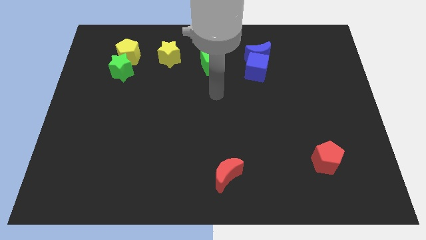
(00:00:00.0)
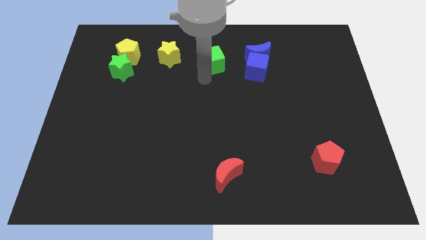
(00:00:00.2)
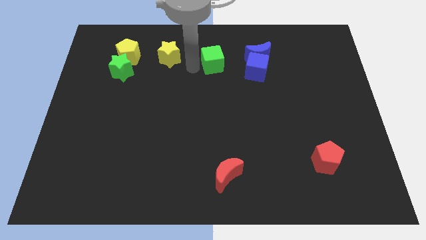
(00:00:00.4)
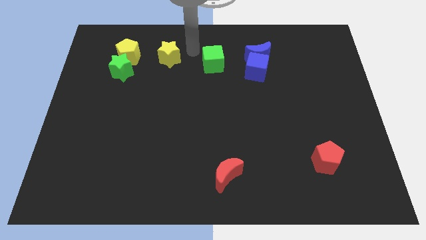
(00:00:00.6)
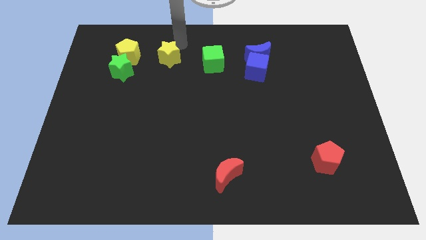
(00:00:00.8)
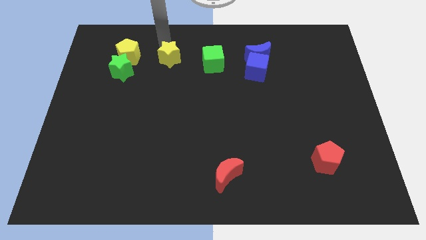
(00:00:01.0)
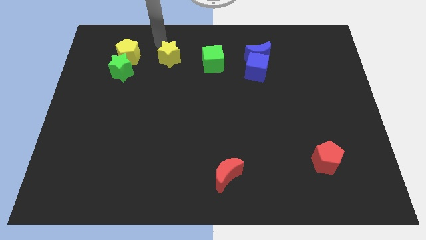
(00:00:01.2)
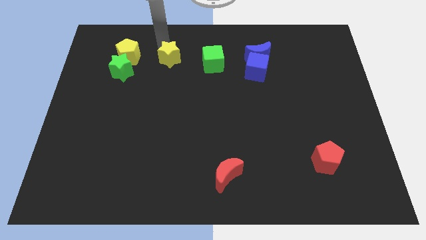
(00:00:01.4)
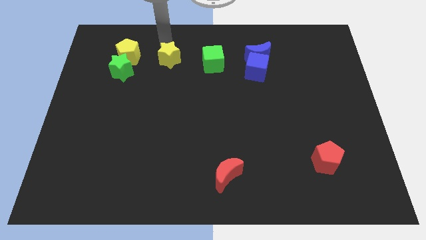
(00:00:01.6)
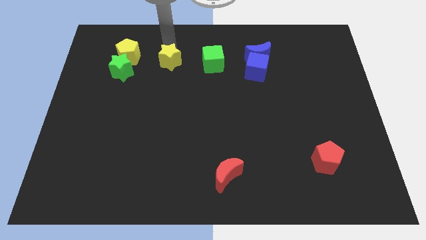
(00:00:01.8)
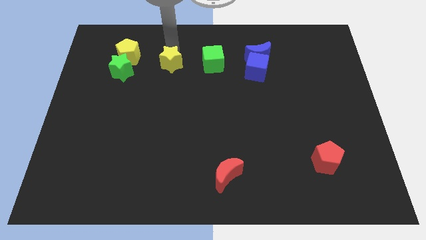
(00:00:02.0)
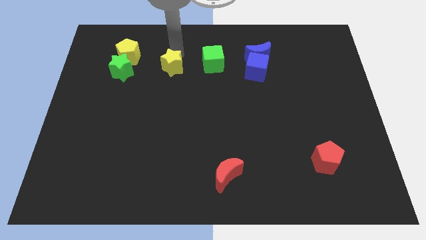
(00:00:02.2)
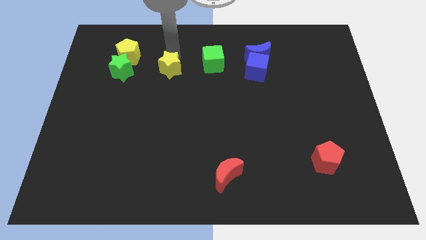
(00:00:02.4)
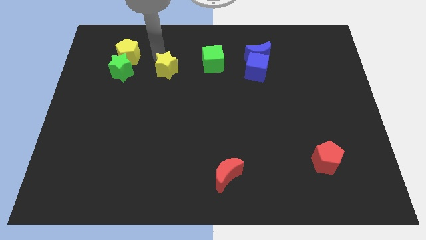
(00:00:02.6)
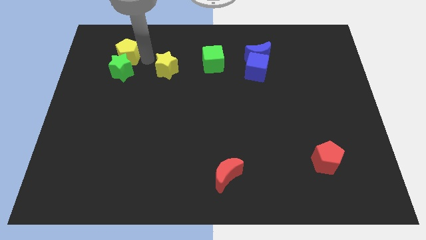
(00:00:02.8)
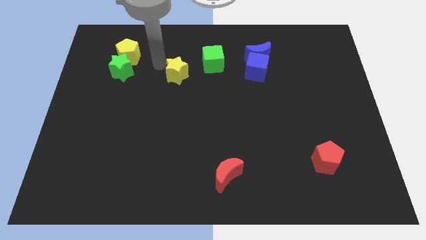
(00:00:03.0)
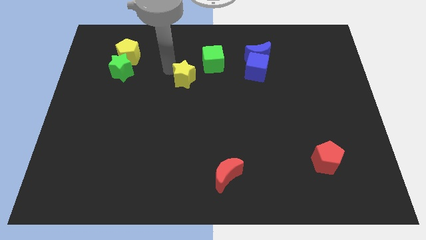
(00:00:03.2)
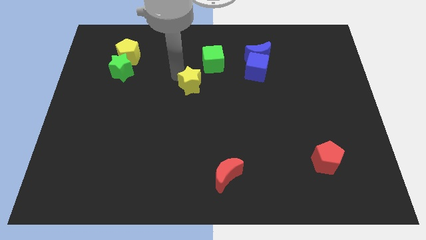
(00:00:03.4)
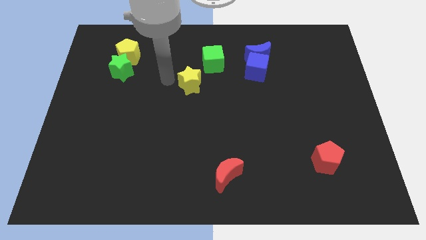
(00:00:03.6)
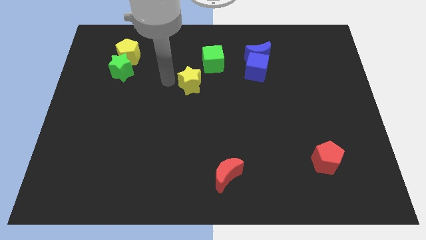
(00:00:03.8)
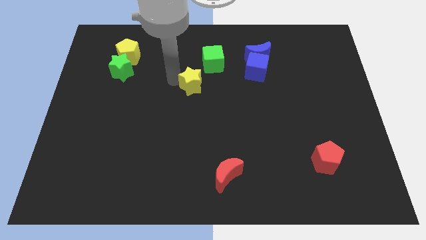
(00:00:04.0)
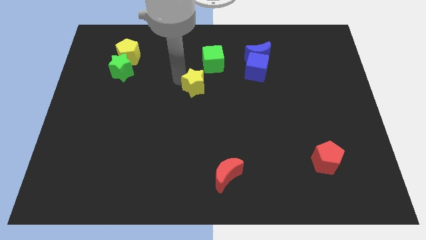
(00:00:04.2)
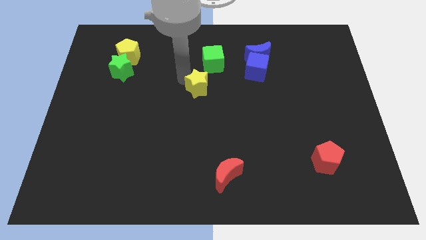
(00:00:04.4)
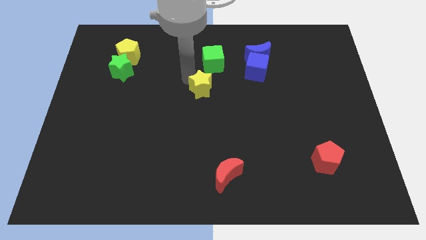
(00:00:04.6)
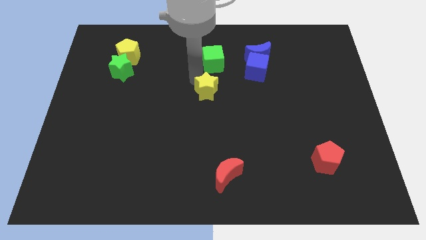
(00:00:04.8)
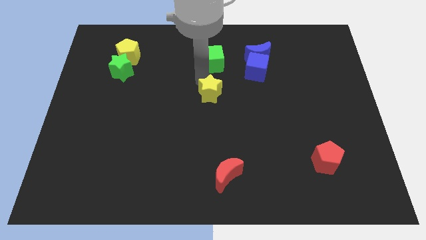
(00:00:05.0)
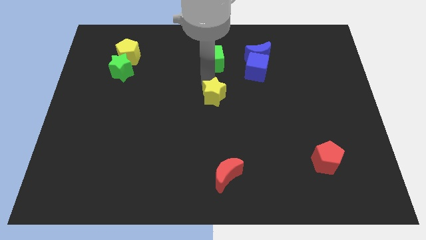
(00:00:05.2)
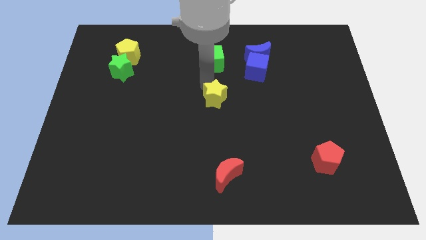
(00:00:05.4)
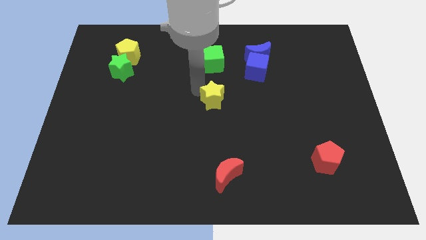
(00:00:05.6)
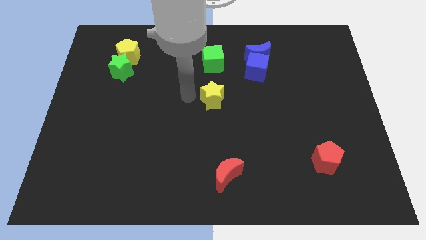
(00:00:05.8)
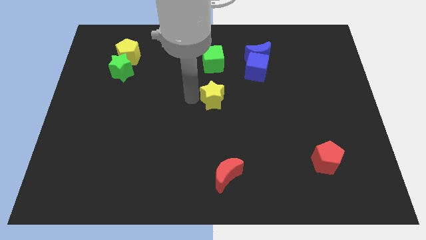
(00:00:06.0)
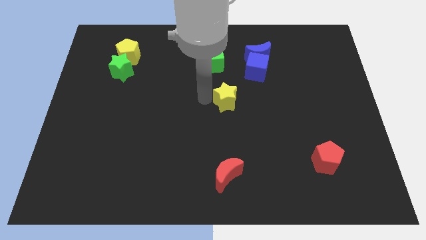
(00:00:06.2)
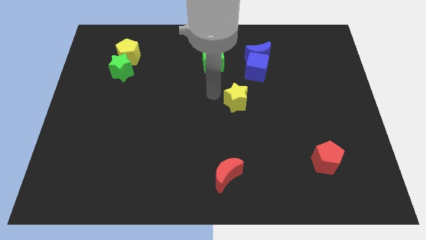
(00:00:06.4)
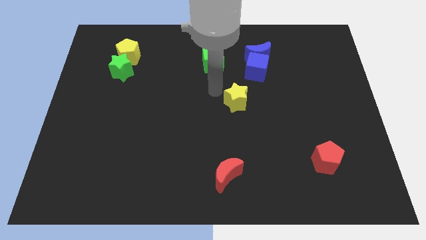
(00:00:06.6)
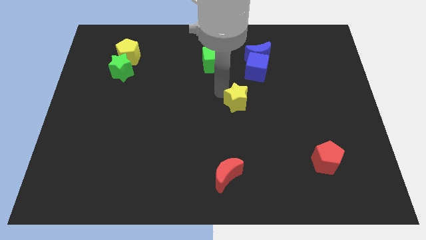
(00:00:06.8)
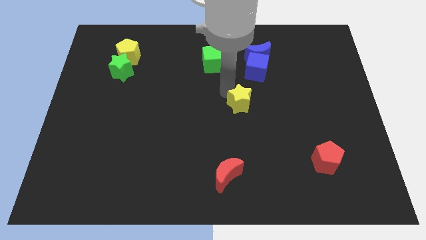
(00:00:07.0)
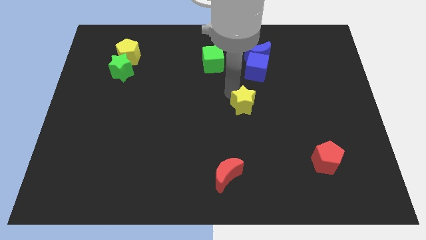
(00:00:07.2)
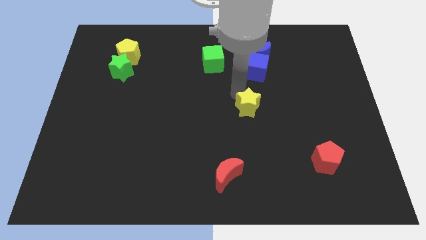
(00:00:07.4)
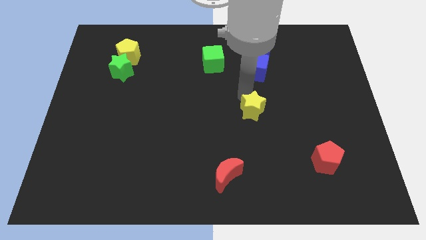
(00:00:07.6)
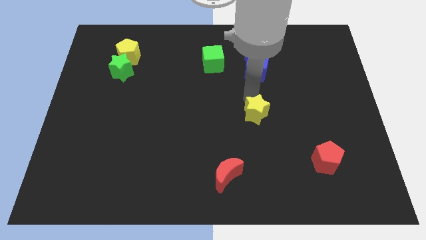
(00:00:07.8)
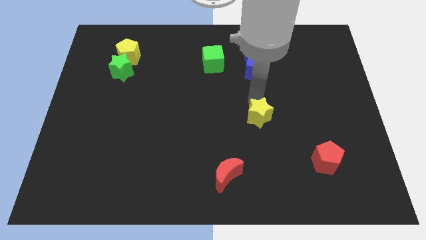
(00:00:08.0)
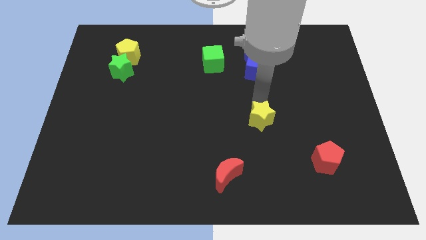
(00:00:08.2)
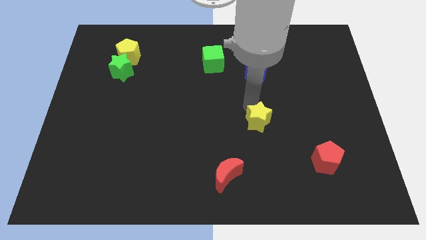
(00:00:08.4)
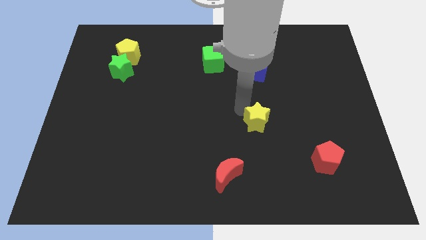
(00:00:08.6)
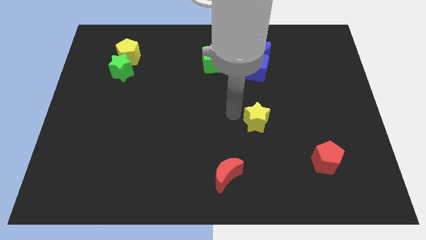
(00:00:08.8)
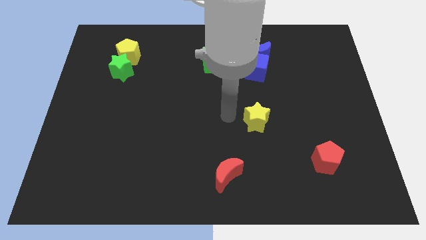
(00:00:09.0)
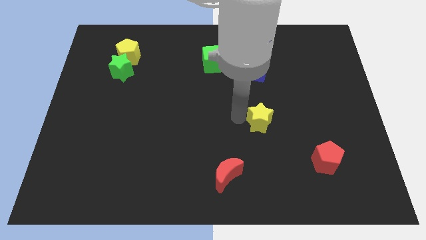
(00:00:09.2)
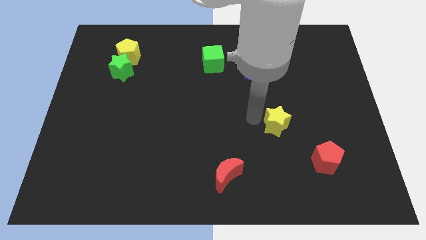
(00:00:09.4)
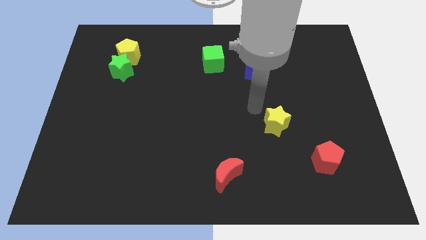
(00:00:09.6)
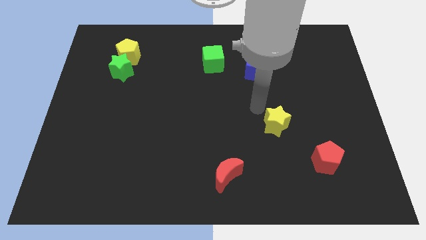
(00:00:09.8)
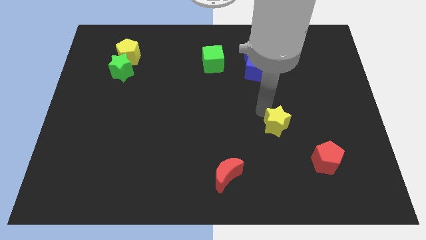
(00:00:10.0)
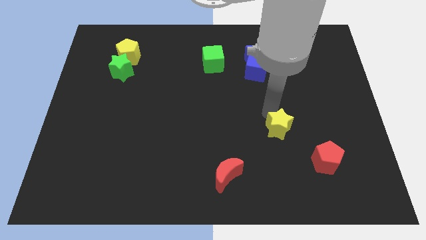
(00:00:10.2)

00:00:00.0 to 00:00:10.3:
push the yellow star to the top left of the red pentagon

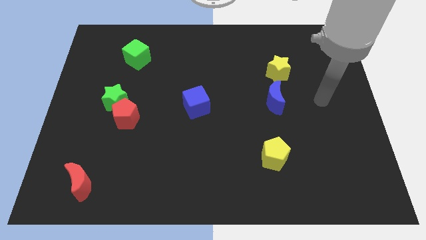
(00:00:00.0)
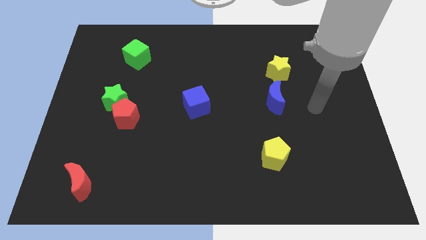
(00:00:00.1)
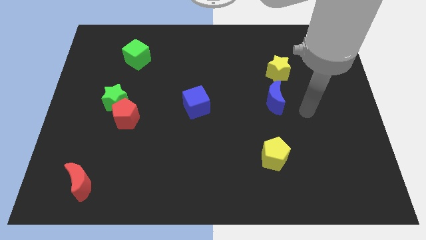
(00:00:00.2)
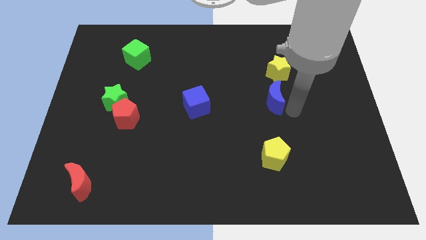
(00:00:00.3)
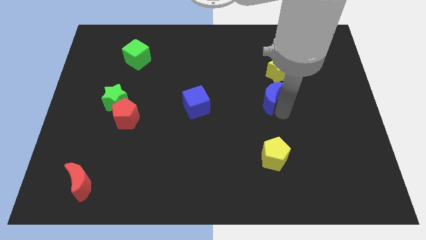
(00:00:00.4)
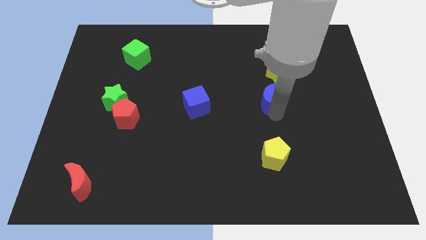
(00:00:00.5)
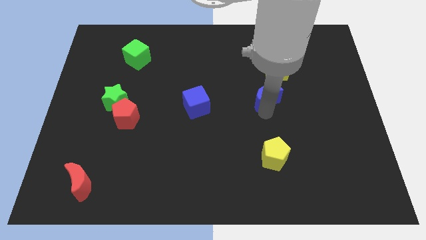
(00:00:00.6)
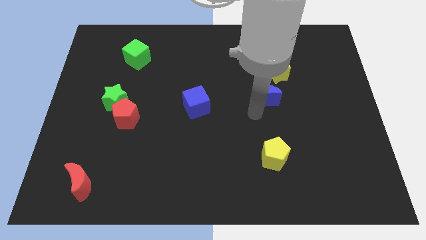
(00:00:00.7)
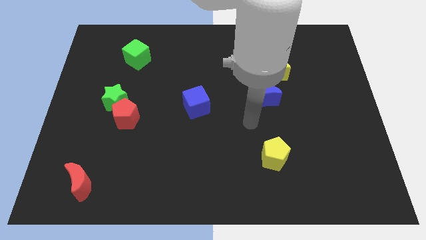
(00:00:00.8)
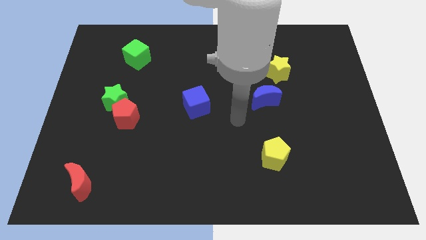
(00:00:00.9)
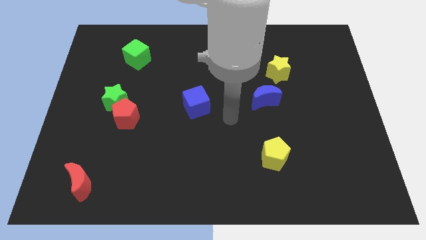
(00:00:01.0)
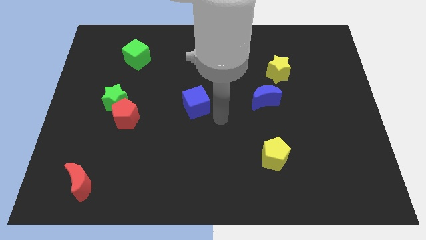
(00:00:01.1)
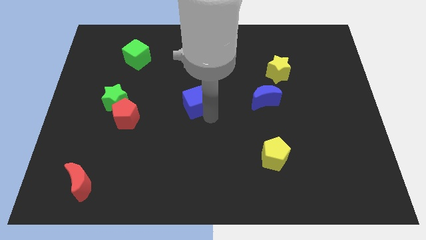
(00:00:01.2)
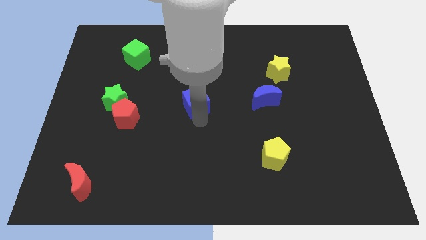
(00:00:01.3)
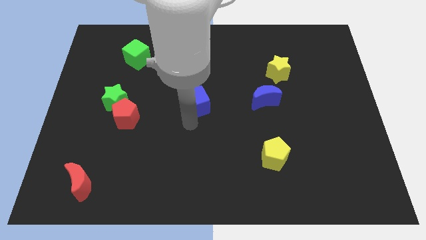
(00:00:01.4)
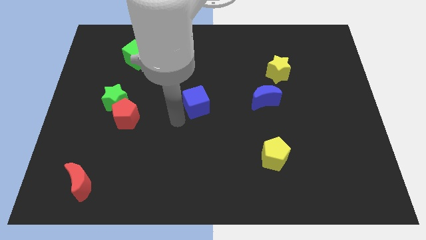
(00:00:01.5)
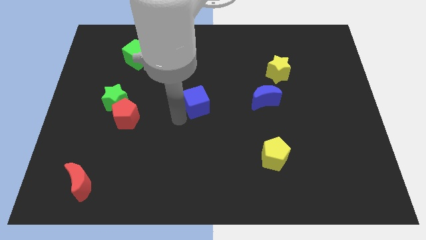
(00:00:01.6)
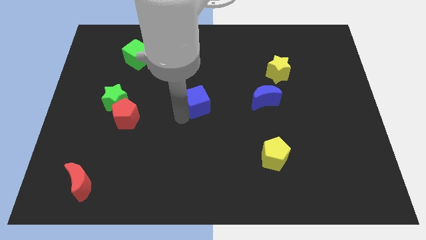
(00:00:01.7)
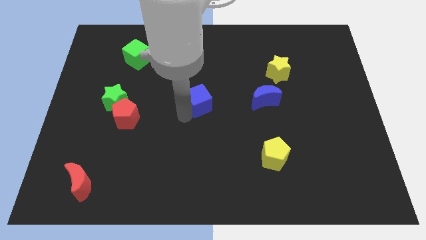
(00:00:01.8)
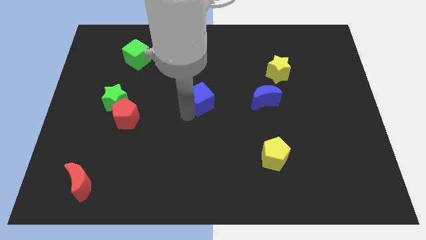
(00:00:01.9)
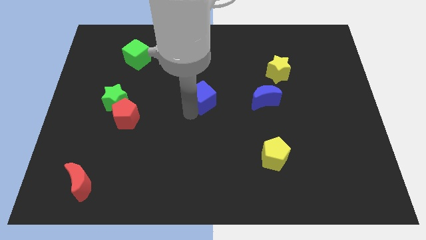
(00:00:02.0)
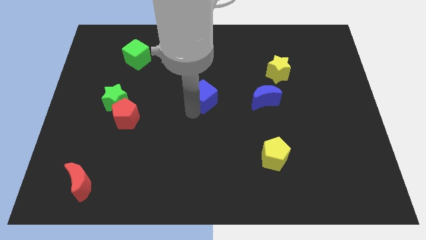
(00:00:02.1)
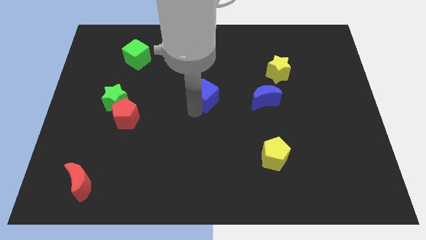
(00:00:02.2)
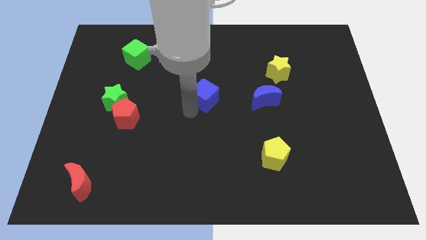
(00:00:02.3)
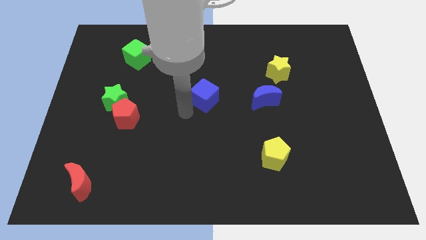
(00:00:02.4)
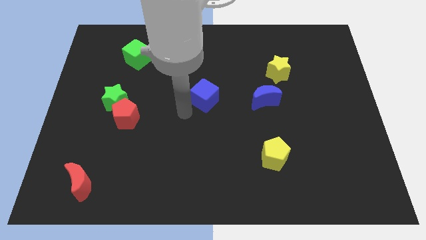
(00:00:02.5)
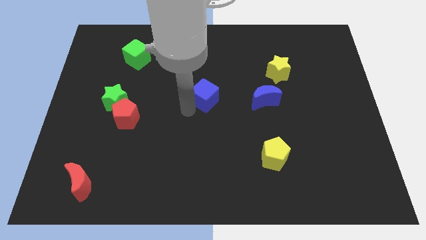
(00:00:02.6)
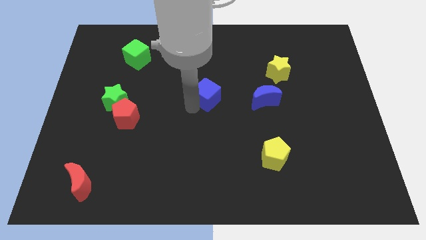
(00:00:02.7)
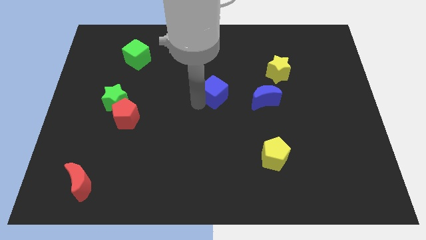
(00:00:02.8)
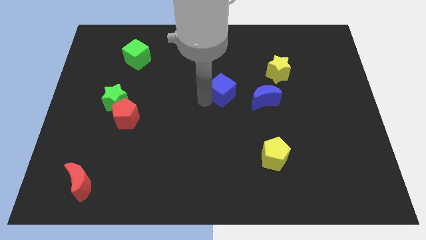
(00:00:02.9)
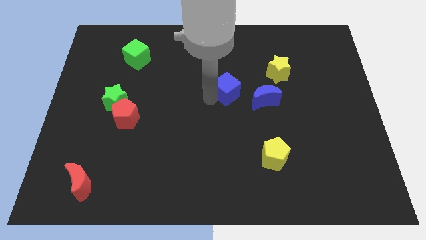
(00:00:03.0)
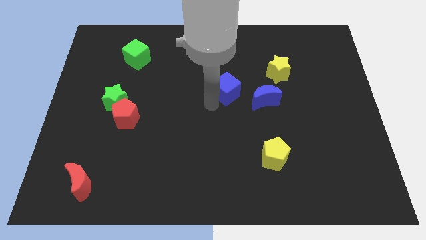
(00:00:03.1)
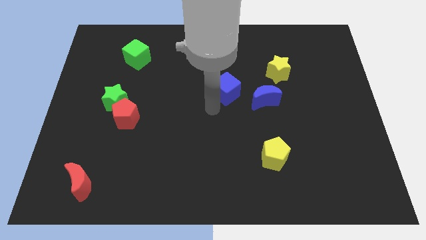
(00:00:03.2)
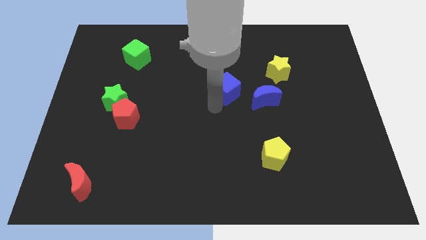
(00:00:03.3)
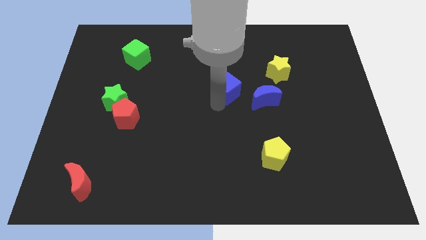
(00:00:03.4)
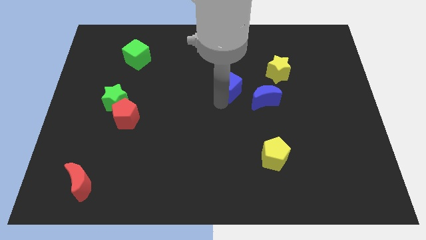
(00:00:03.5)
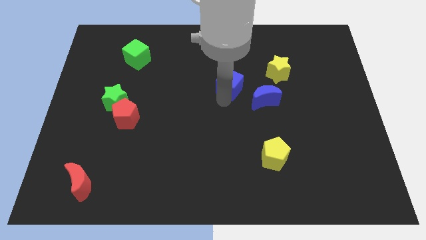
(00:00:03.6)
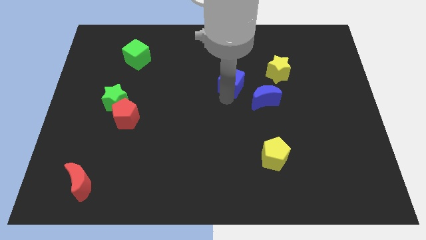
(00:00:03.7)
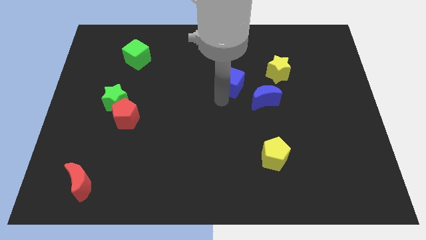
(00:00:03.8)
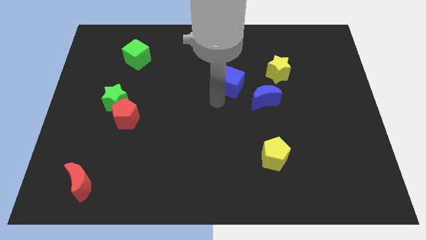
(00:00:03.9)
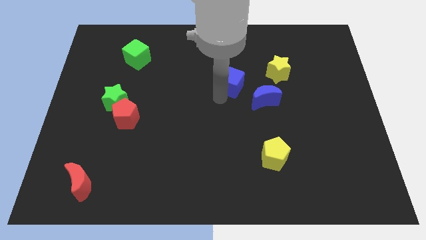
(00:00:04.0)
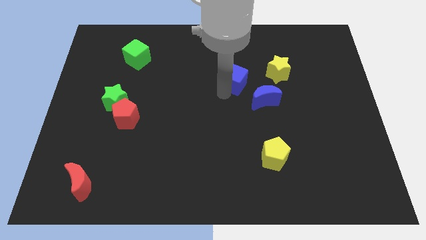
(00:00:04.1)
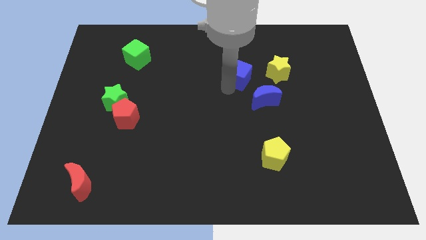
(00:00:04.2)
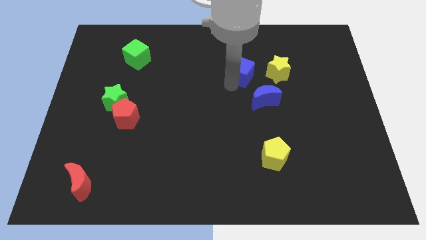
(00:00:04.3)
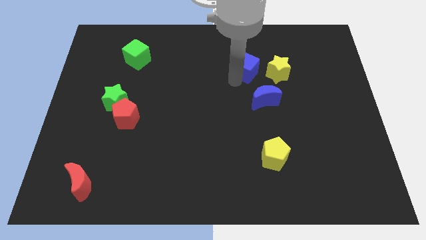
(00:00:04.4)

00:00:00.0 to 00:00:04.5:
move the blue cube to the top side of the blue moon
